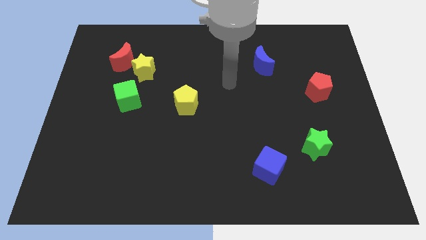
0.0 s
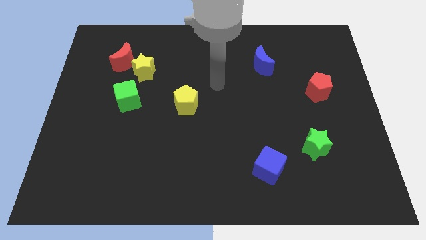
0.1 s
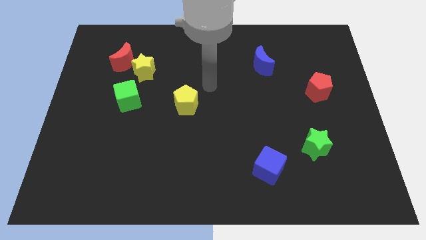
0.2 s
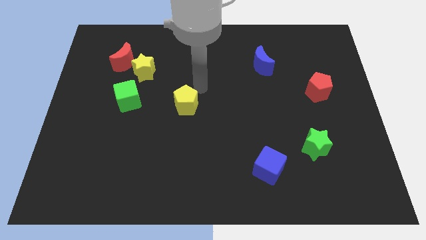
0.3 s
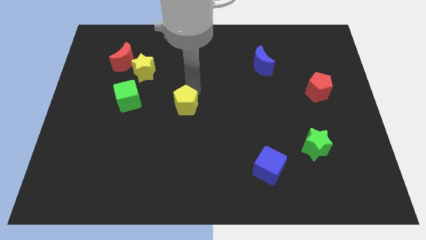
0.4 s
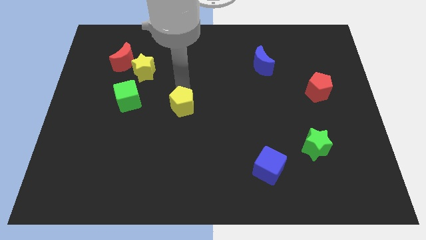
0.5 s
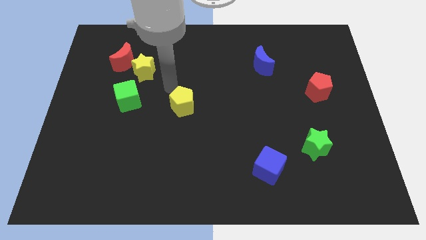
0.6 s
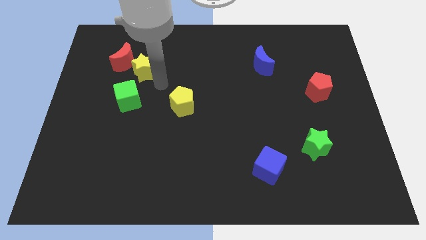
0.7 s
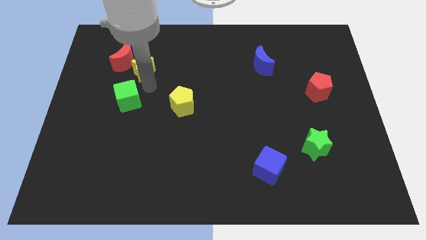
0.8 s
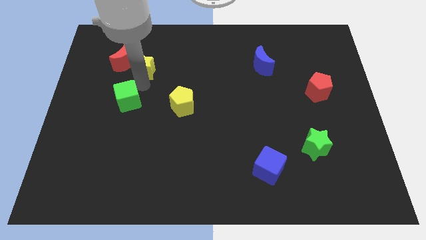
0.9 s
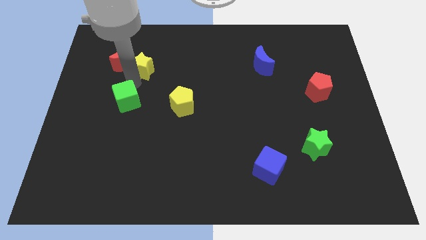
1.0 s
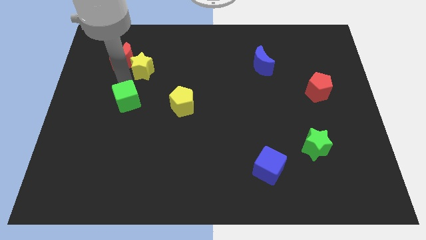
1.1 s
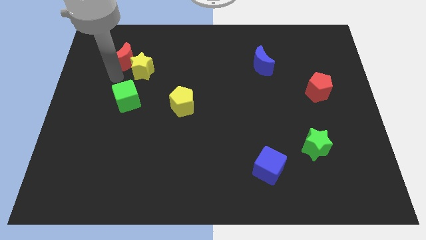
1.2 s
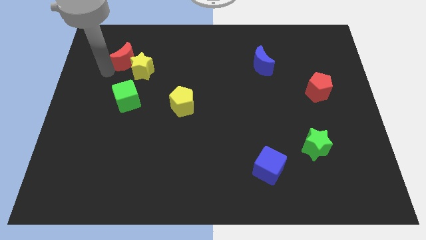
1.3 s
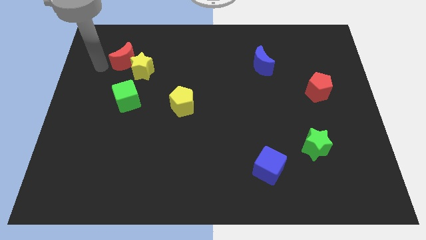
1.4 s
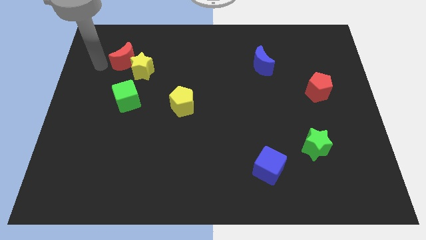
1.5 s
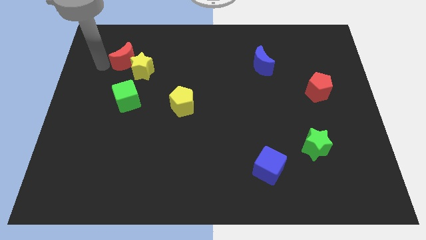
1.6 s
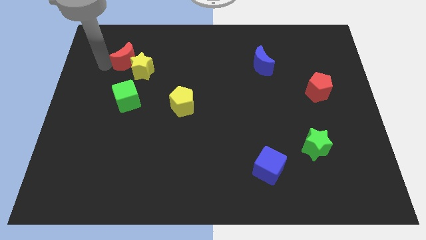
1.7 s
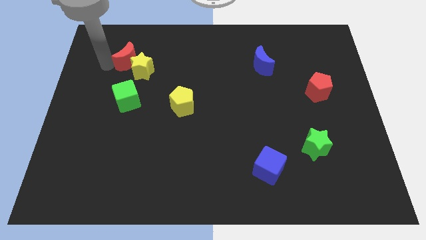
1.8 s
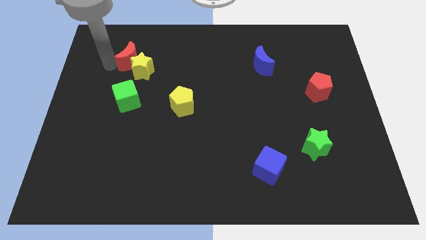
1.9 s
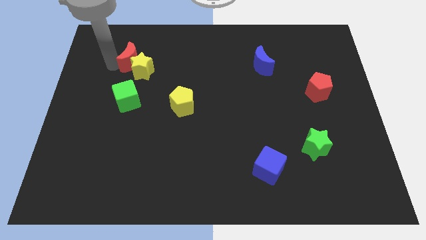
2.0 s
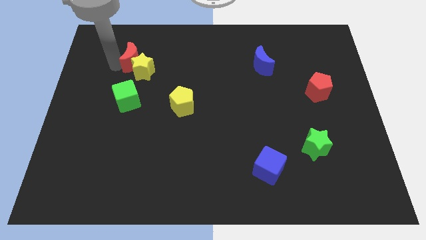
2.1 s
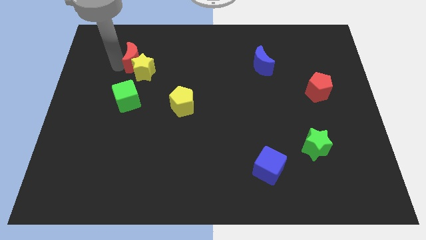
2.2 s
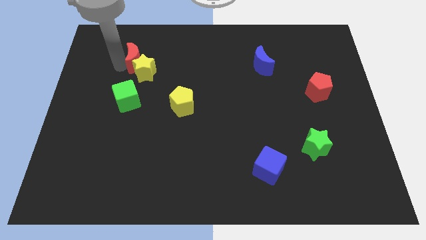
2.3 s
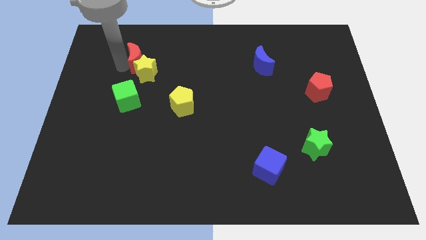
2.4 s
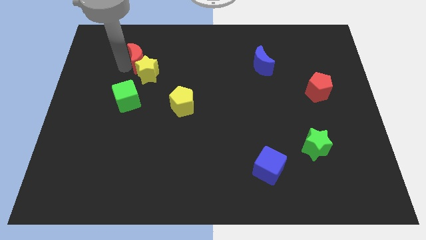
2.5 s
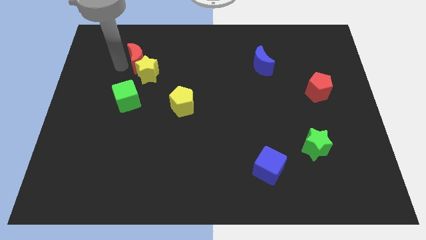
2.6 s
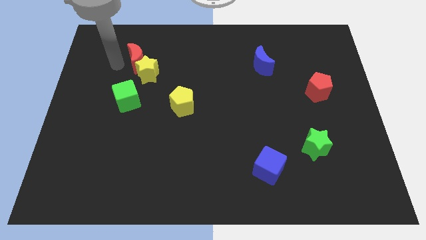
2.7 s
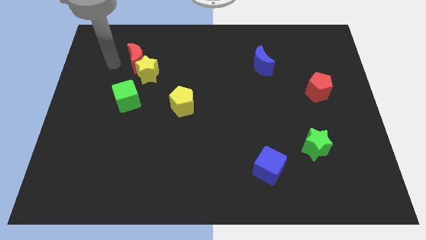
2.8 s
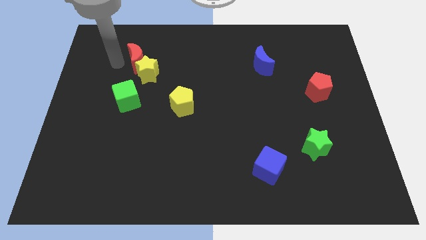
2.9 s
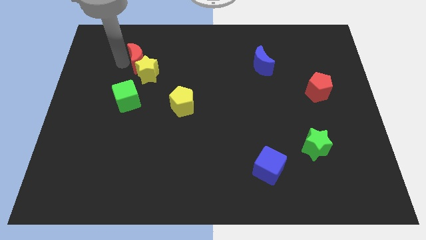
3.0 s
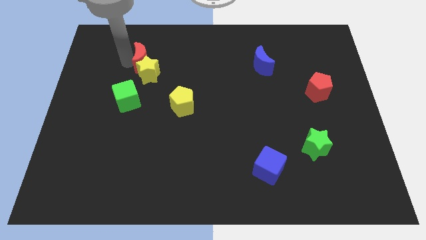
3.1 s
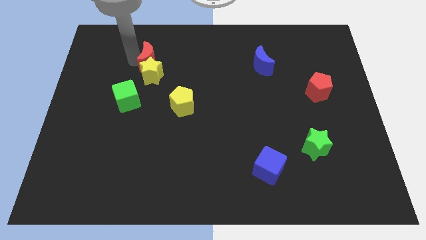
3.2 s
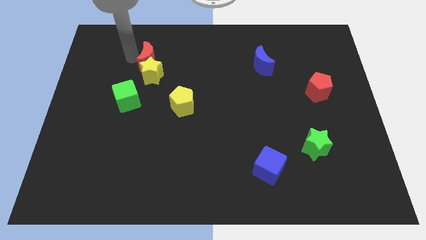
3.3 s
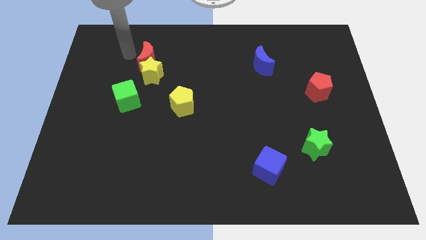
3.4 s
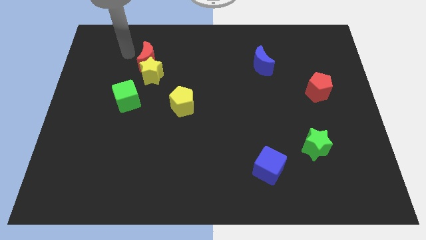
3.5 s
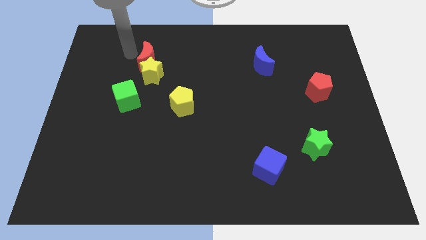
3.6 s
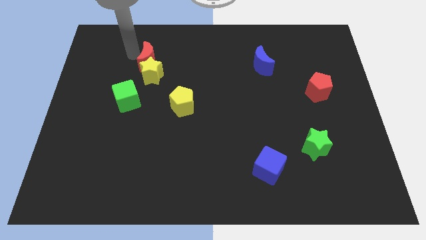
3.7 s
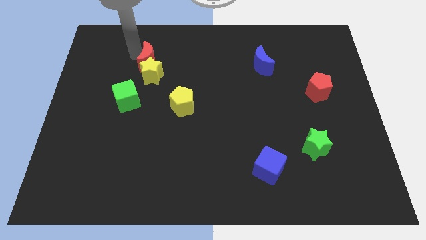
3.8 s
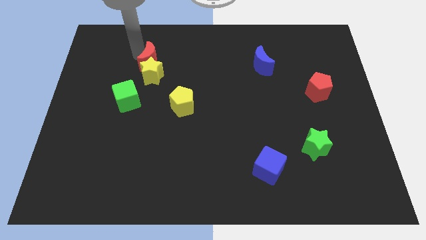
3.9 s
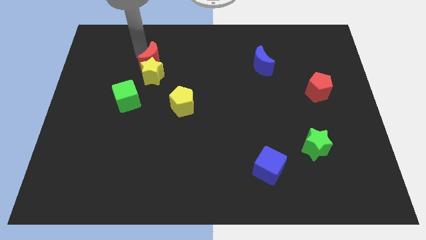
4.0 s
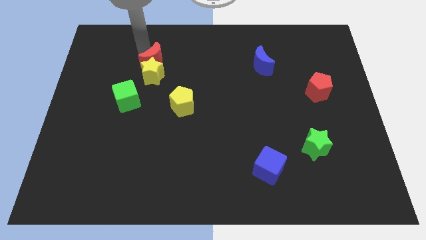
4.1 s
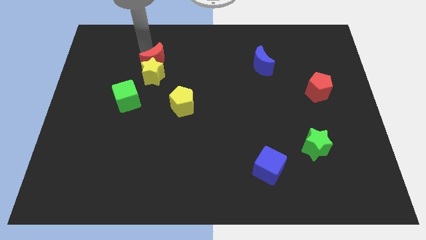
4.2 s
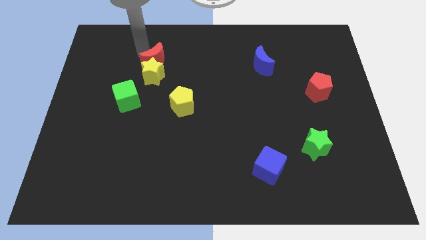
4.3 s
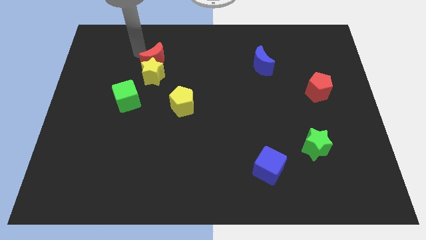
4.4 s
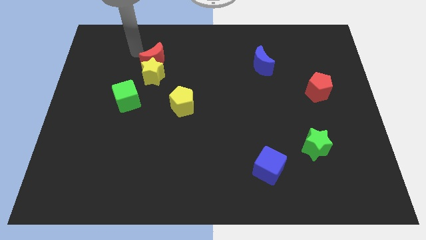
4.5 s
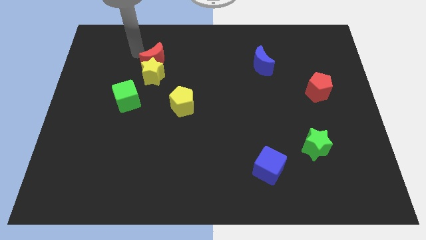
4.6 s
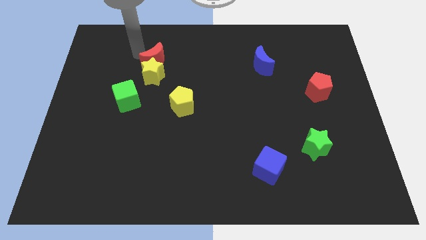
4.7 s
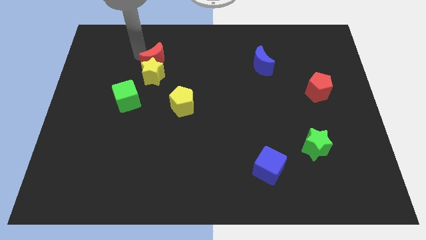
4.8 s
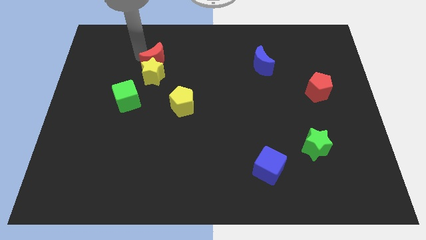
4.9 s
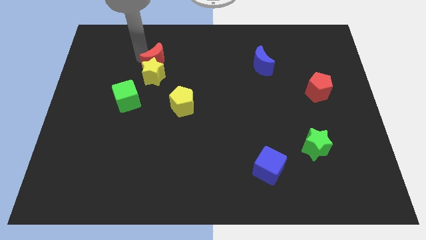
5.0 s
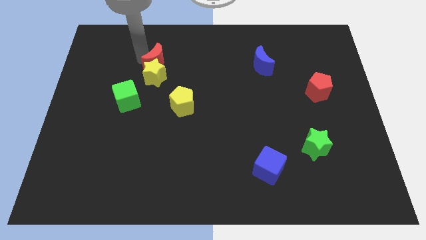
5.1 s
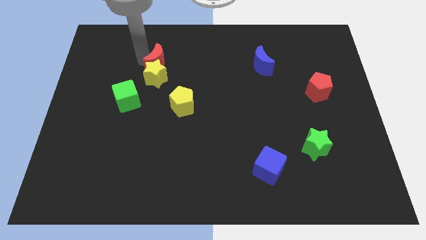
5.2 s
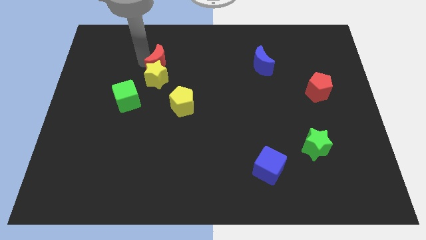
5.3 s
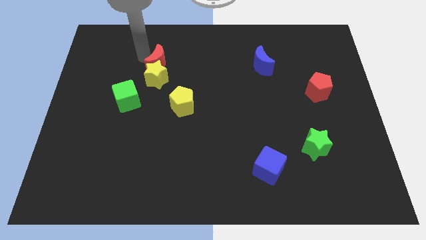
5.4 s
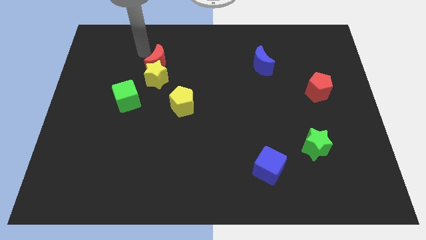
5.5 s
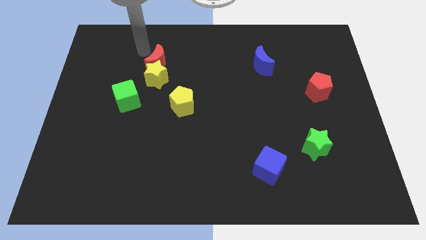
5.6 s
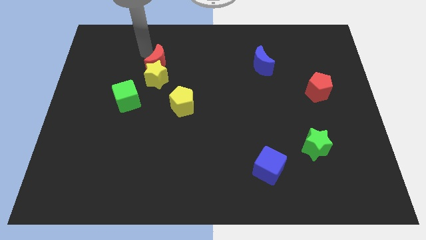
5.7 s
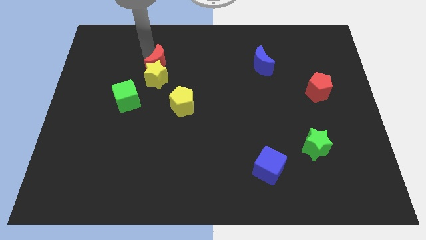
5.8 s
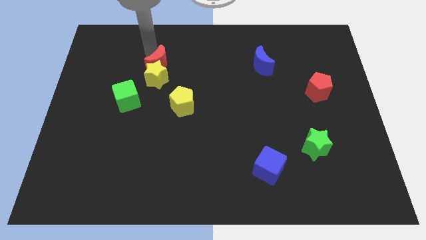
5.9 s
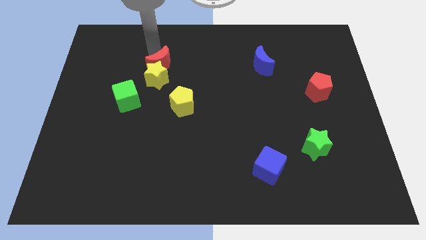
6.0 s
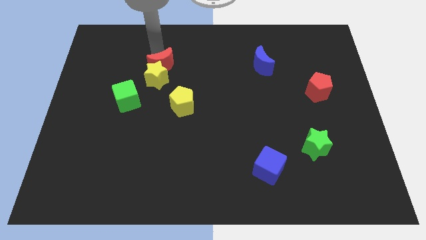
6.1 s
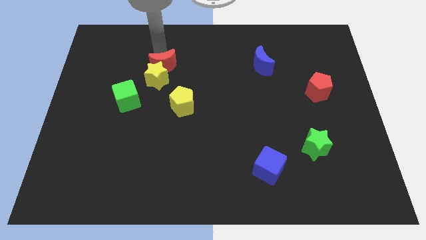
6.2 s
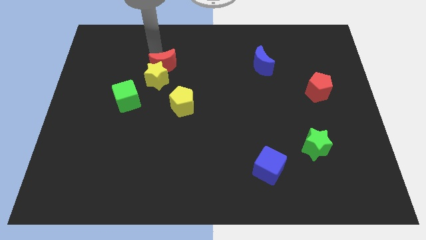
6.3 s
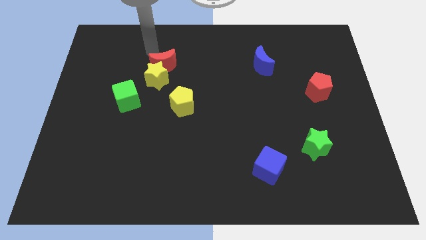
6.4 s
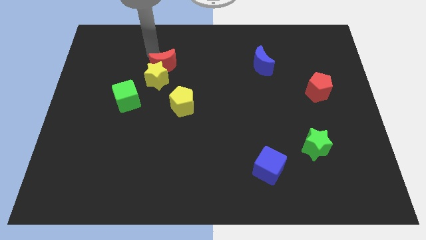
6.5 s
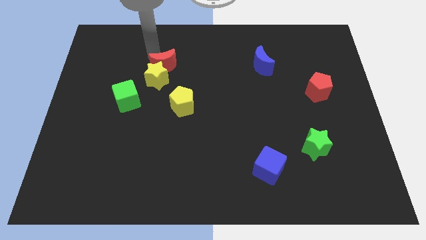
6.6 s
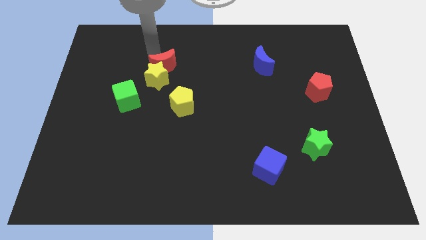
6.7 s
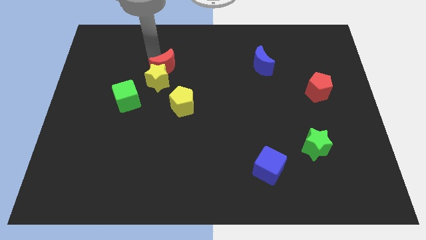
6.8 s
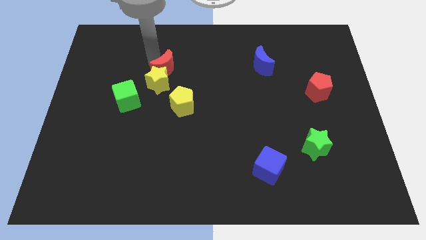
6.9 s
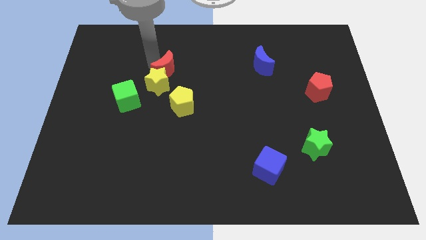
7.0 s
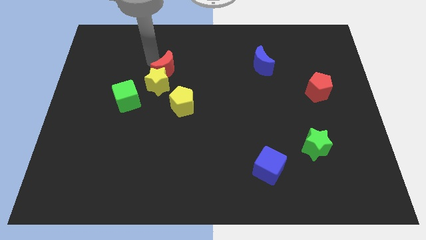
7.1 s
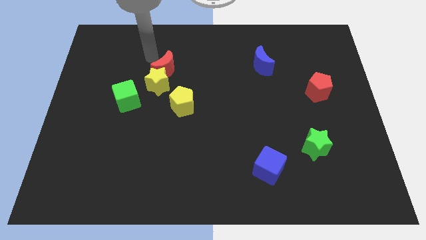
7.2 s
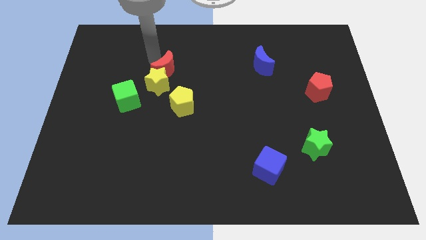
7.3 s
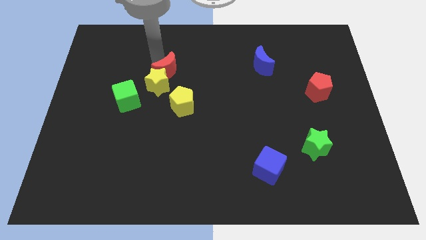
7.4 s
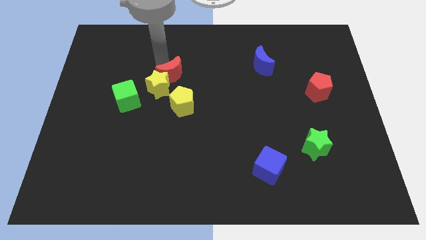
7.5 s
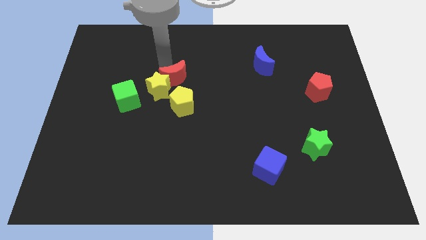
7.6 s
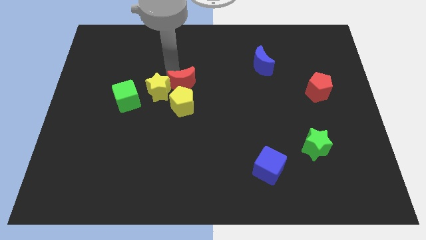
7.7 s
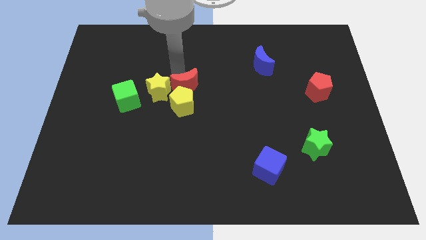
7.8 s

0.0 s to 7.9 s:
move the red moon close to the yellow pentagon
